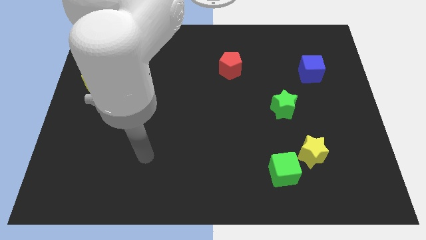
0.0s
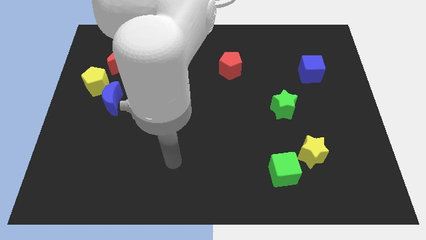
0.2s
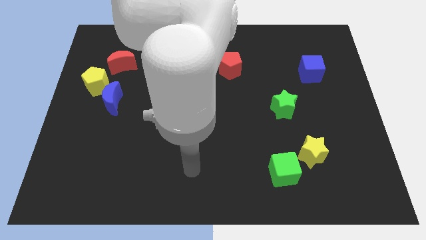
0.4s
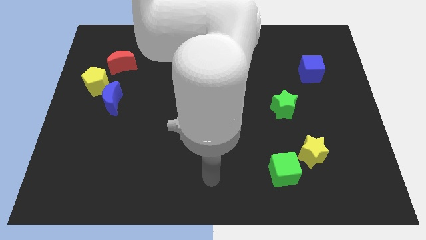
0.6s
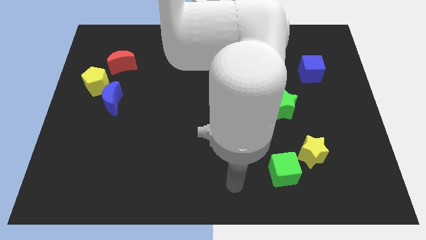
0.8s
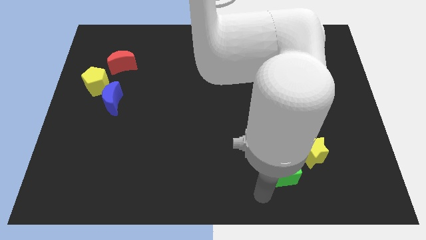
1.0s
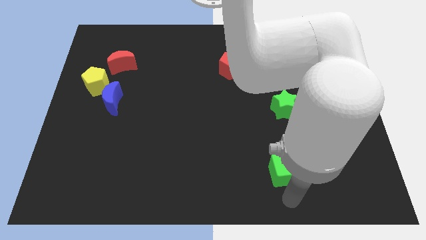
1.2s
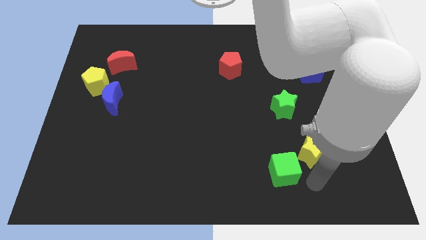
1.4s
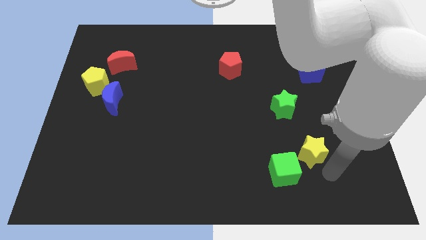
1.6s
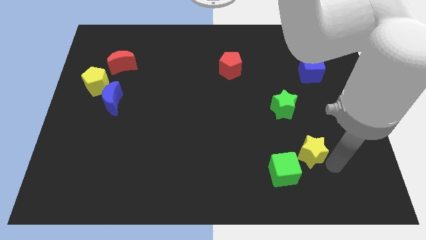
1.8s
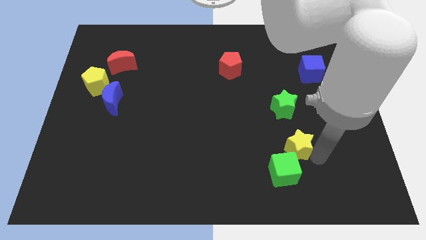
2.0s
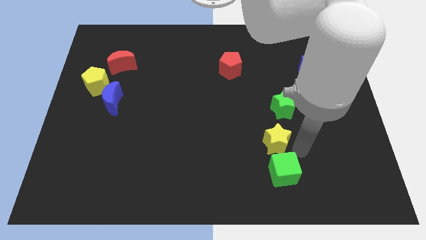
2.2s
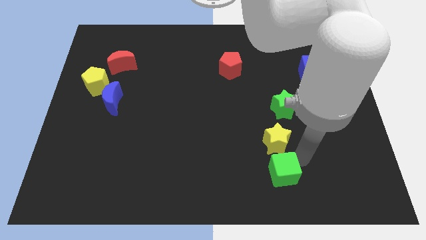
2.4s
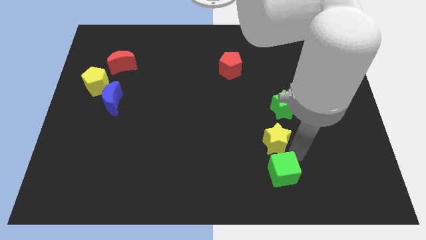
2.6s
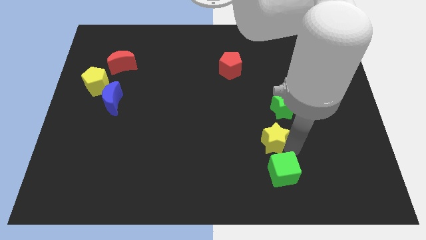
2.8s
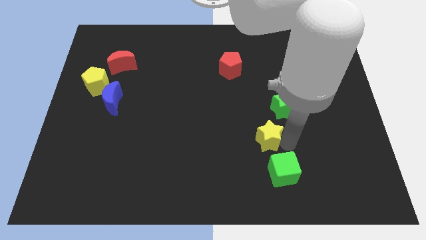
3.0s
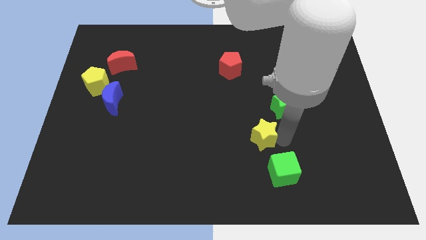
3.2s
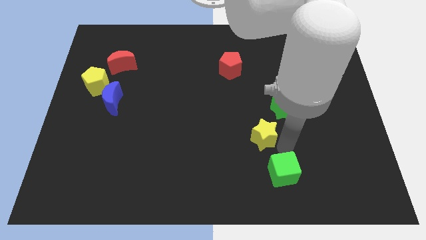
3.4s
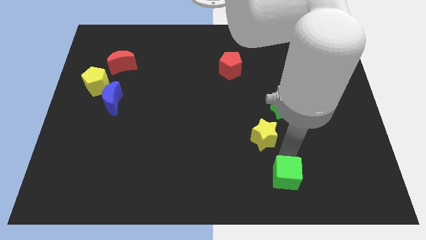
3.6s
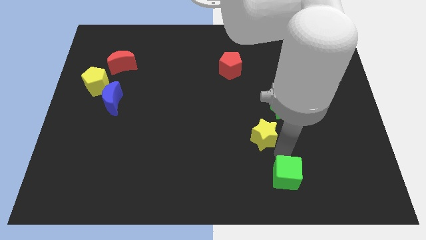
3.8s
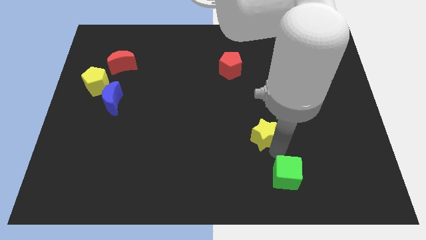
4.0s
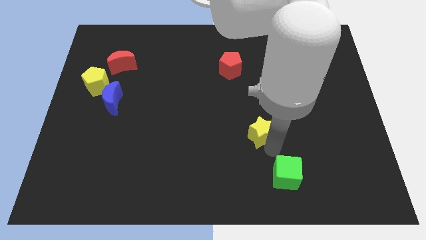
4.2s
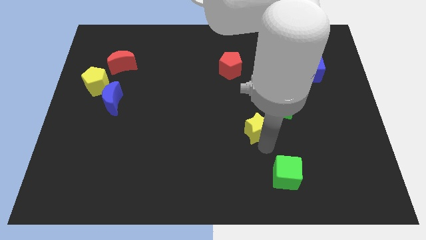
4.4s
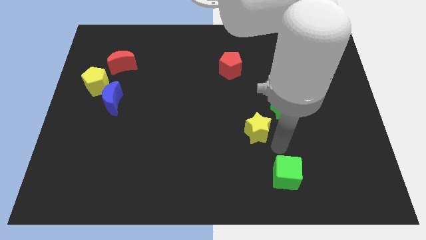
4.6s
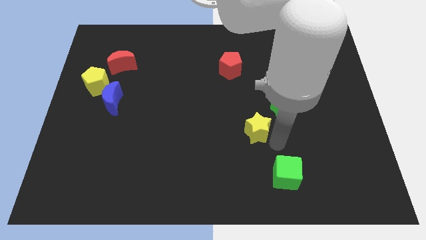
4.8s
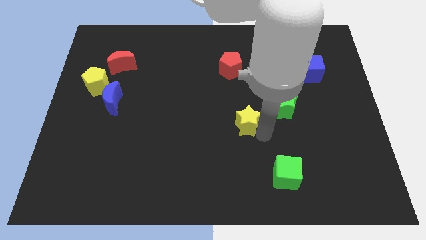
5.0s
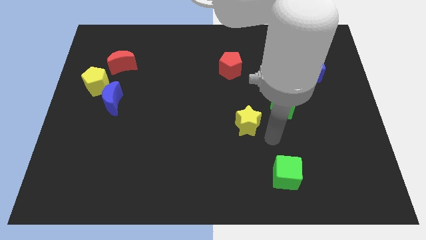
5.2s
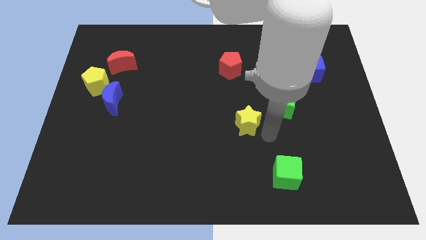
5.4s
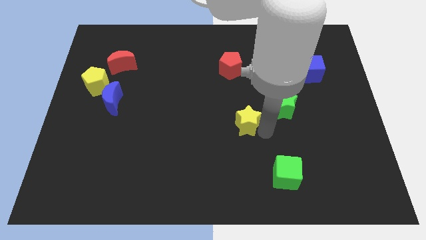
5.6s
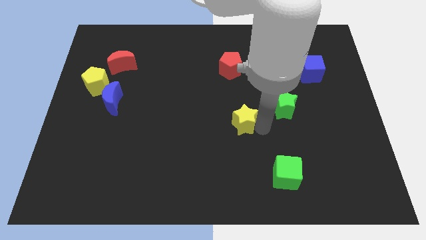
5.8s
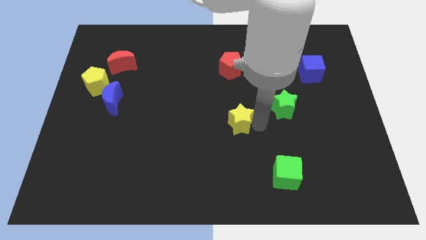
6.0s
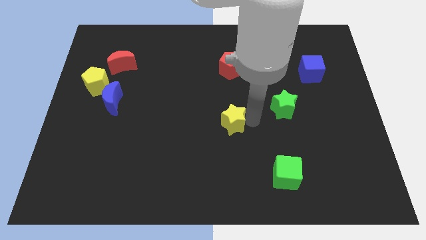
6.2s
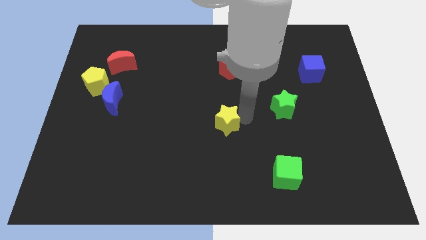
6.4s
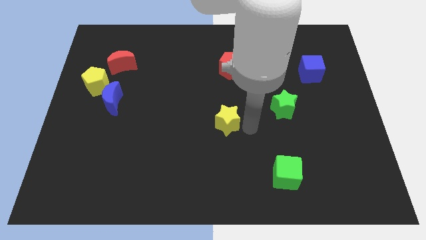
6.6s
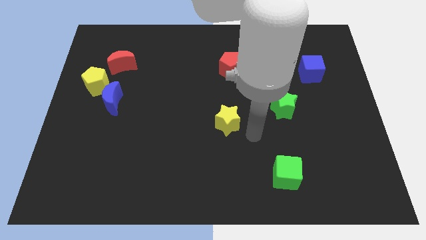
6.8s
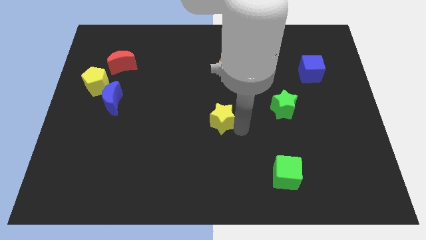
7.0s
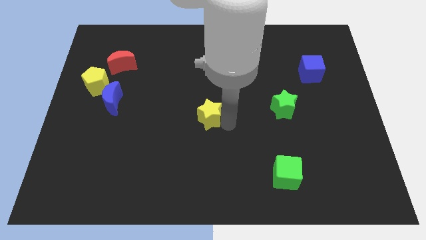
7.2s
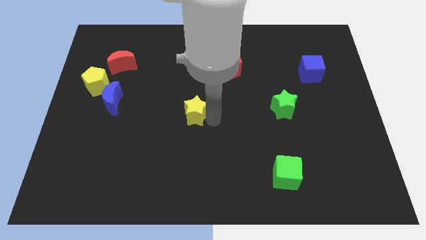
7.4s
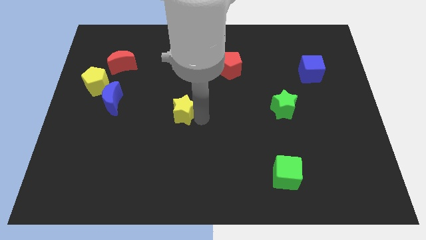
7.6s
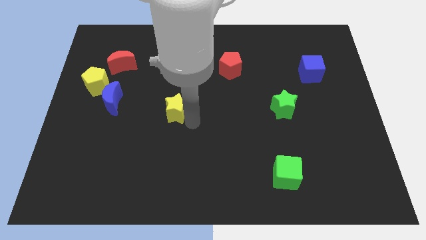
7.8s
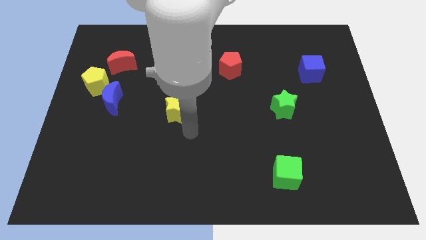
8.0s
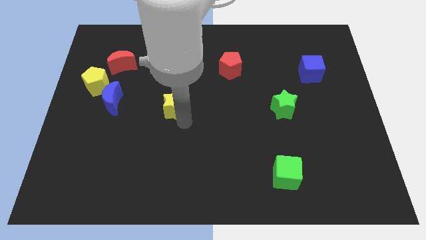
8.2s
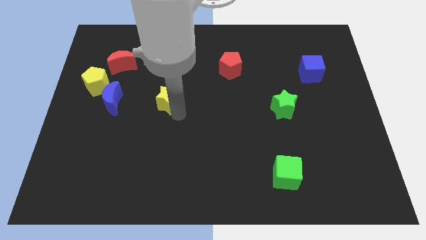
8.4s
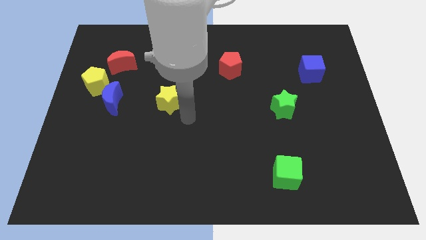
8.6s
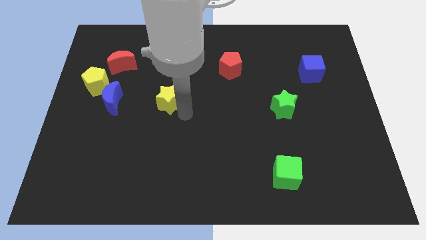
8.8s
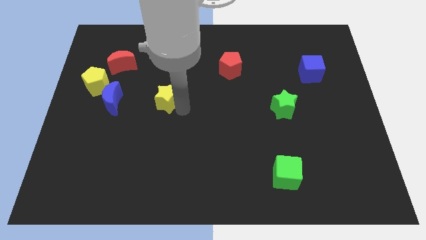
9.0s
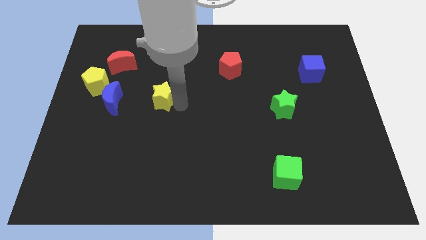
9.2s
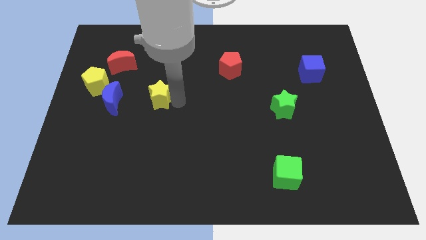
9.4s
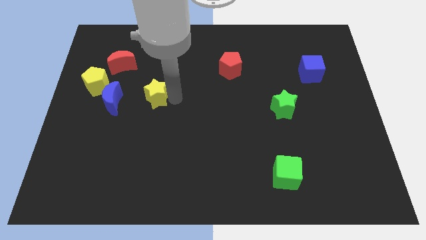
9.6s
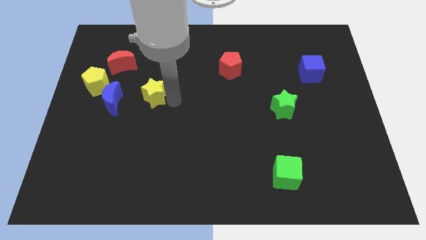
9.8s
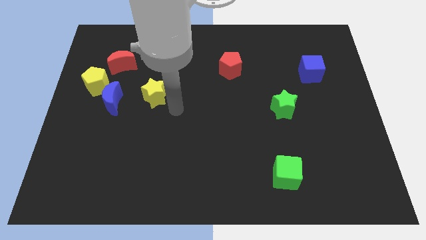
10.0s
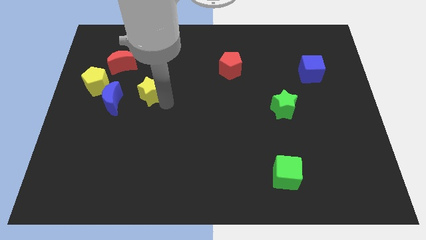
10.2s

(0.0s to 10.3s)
put the yellow star to the right of the yellow pentagon

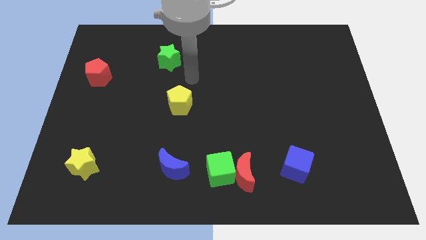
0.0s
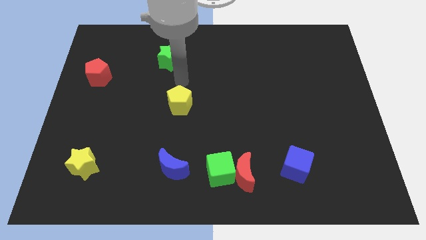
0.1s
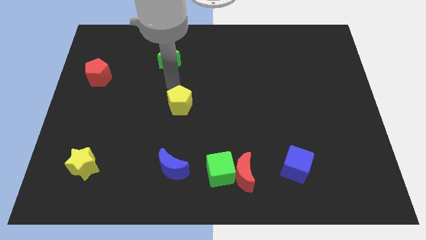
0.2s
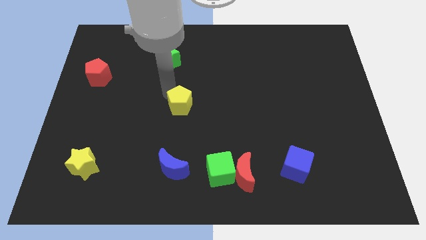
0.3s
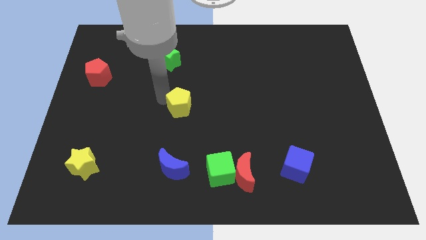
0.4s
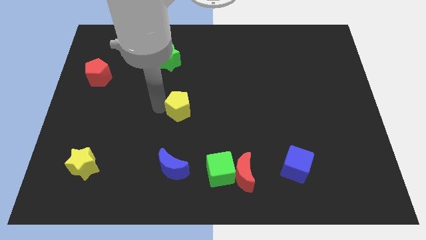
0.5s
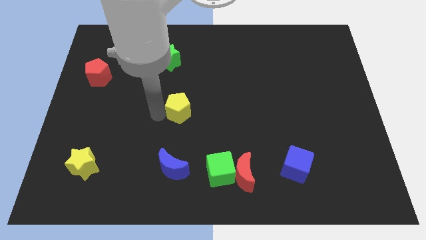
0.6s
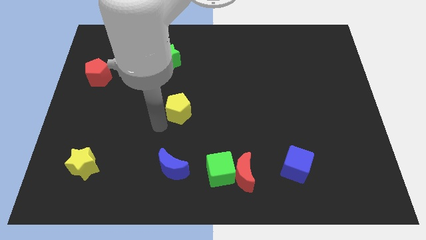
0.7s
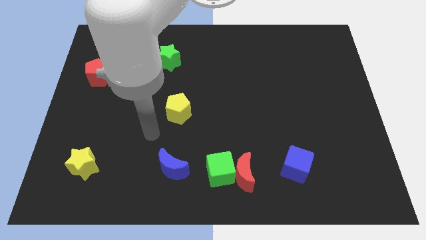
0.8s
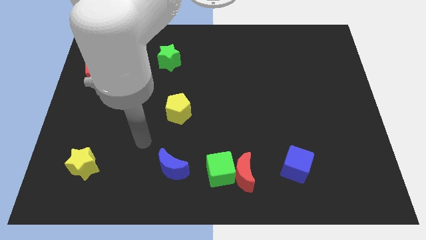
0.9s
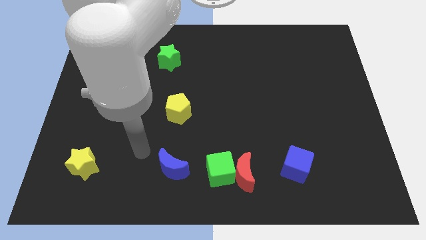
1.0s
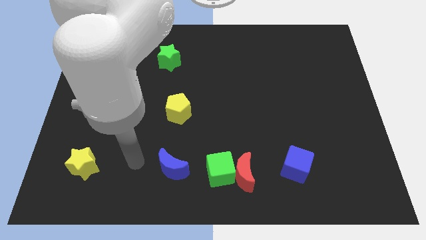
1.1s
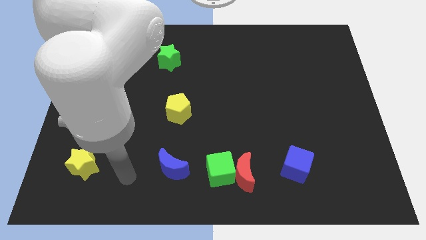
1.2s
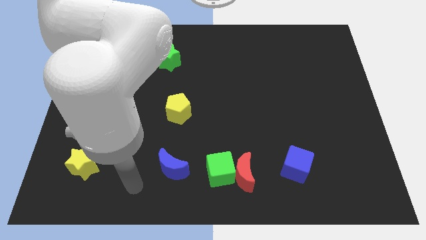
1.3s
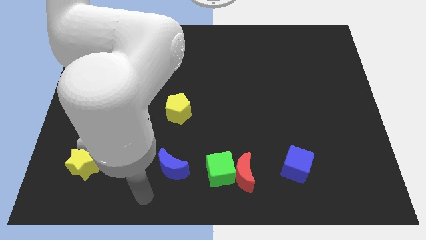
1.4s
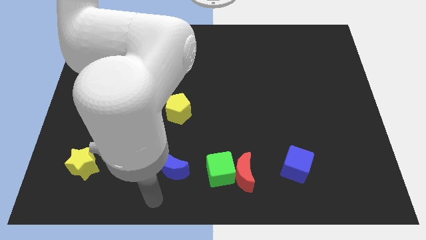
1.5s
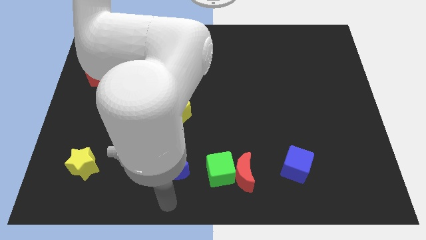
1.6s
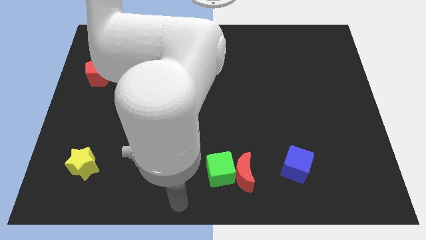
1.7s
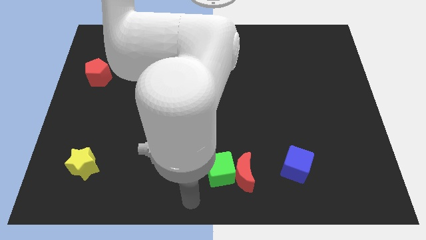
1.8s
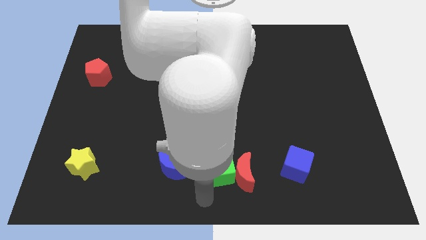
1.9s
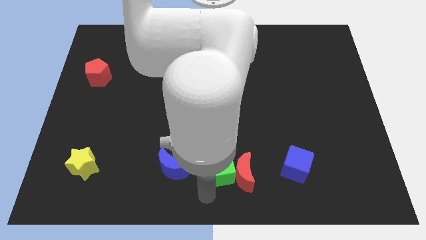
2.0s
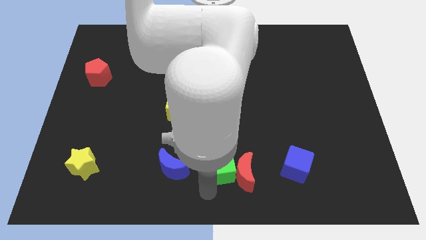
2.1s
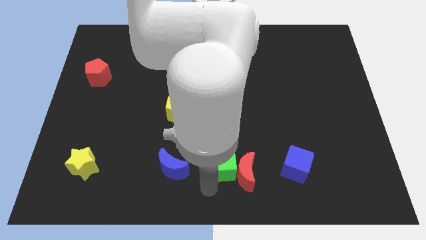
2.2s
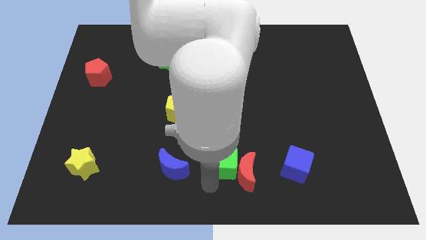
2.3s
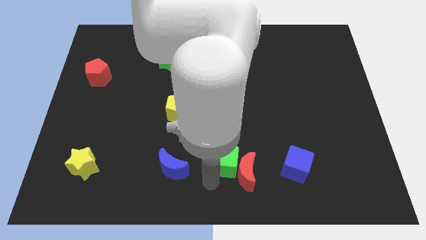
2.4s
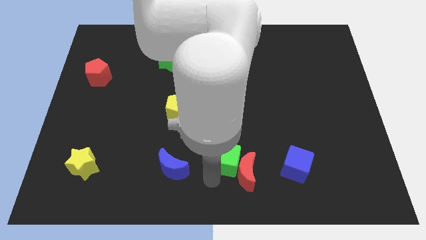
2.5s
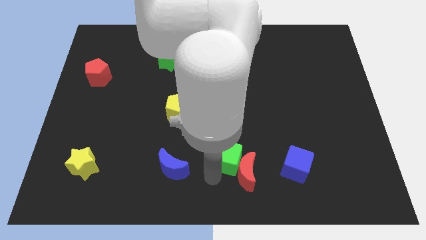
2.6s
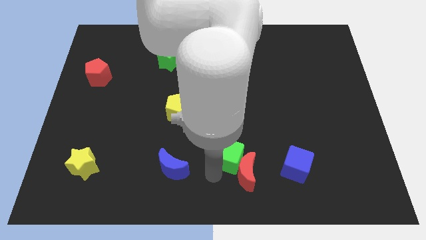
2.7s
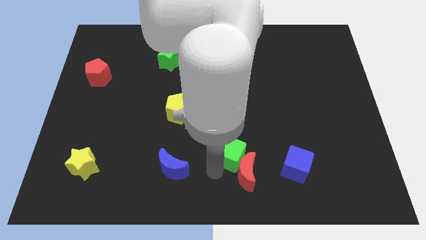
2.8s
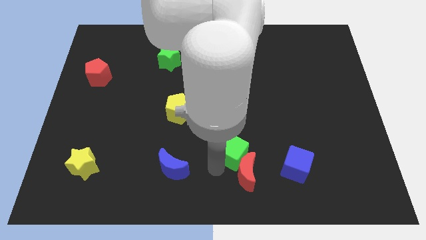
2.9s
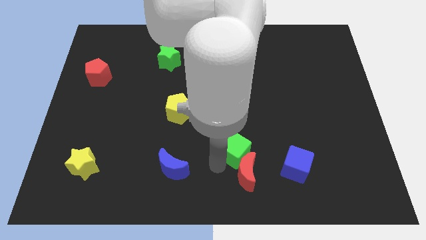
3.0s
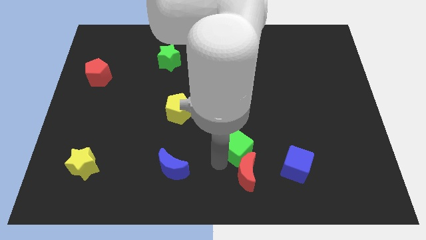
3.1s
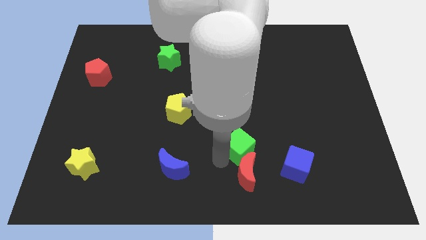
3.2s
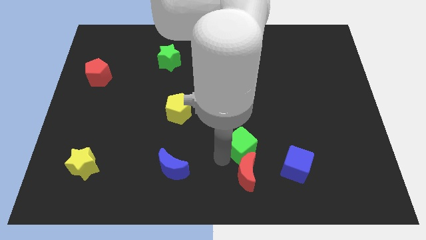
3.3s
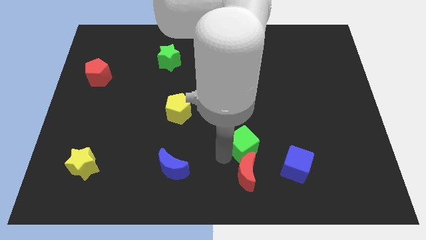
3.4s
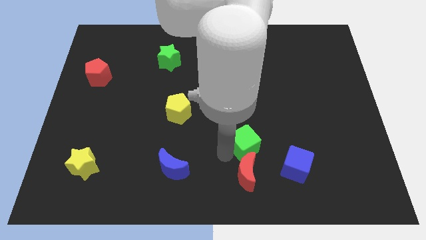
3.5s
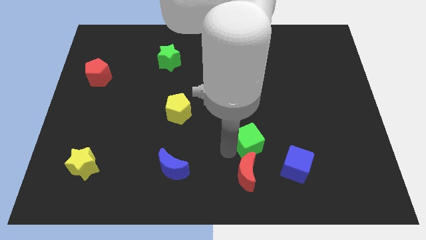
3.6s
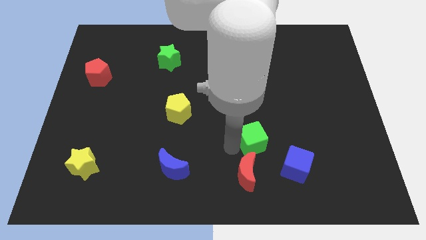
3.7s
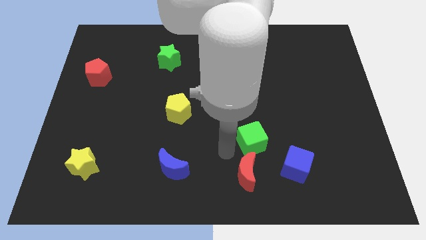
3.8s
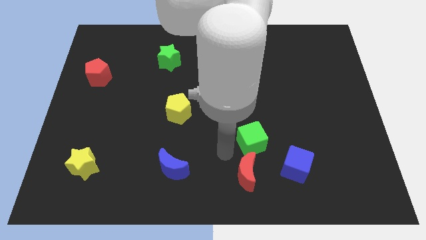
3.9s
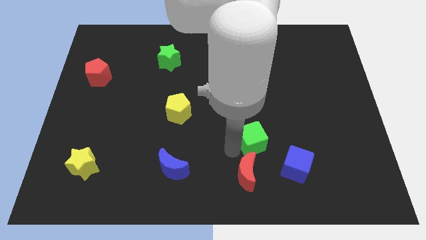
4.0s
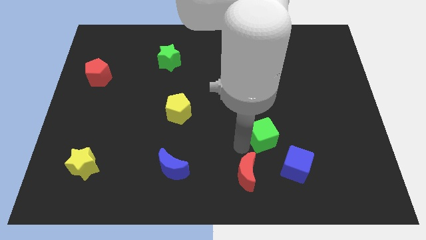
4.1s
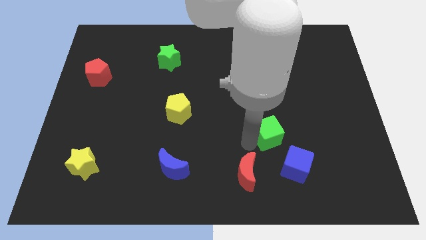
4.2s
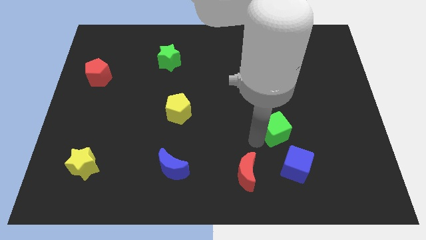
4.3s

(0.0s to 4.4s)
move the green cube to the top of the blue cube
